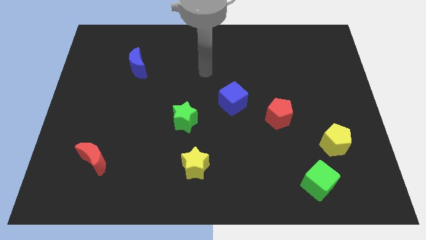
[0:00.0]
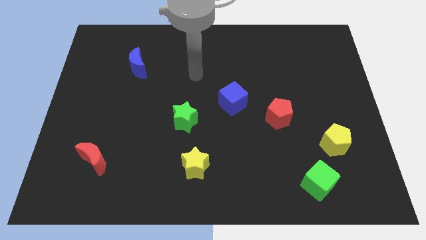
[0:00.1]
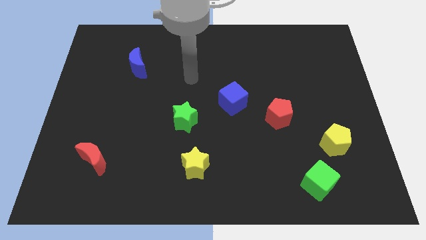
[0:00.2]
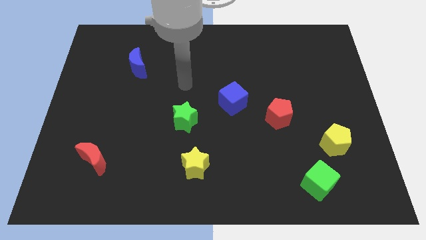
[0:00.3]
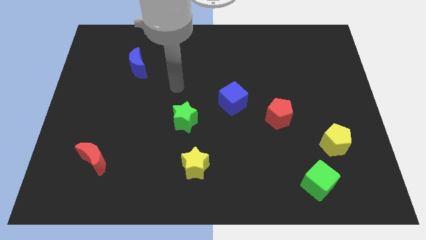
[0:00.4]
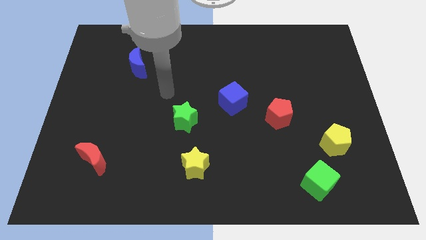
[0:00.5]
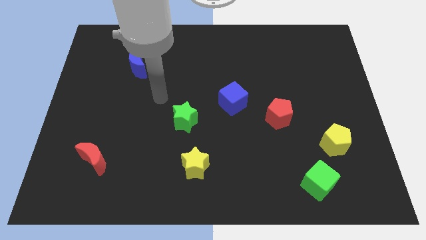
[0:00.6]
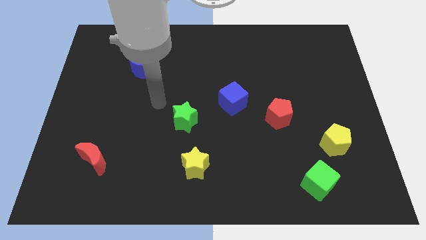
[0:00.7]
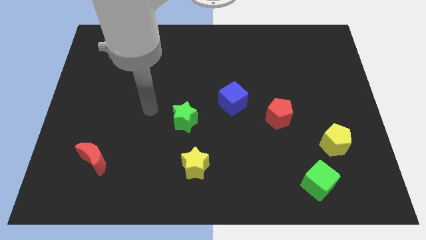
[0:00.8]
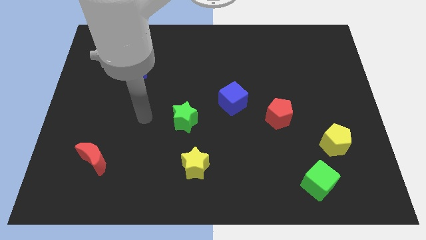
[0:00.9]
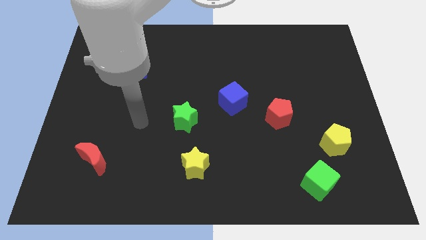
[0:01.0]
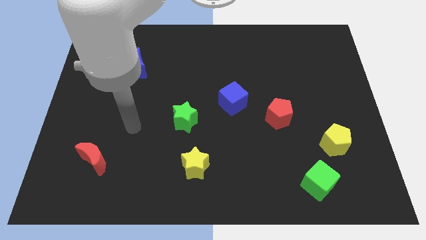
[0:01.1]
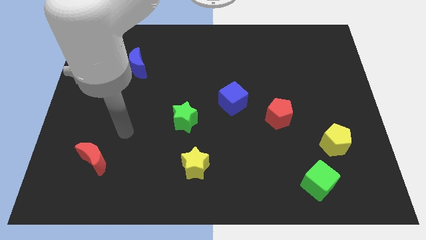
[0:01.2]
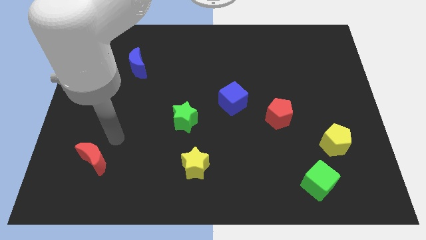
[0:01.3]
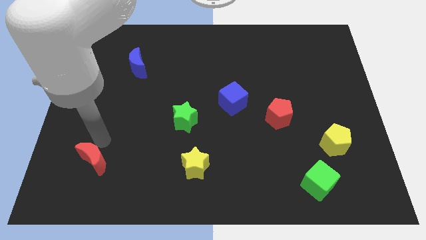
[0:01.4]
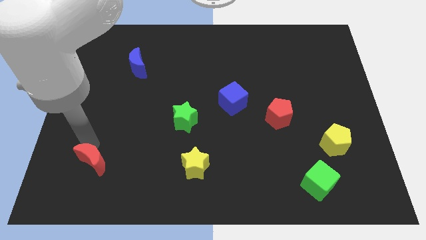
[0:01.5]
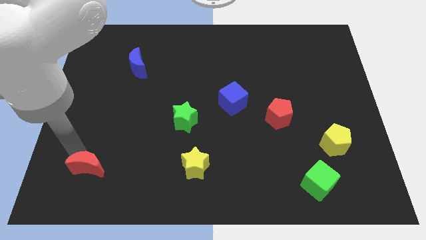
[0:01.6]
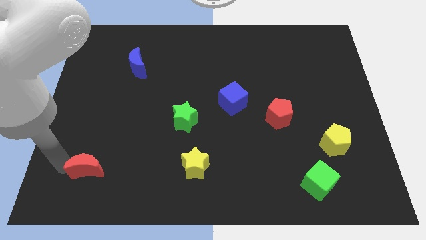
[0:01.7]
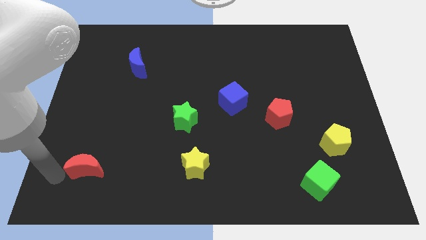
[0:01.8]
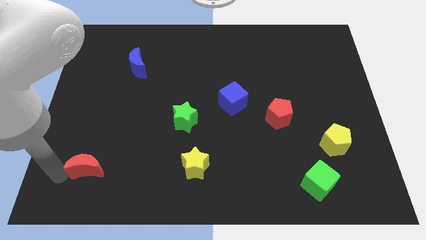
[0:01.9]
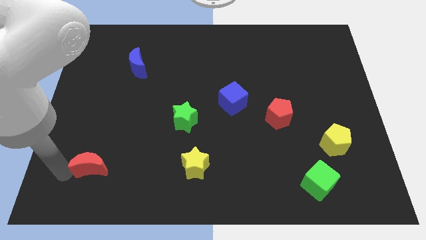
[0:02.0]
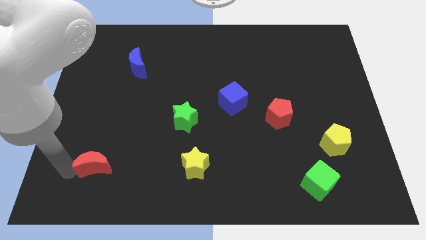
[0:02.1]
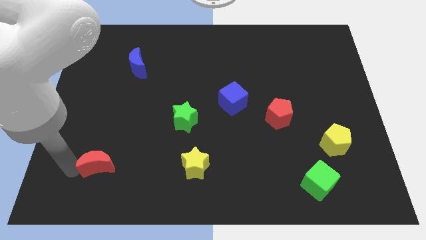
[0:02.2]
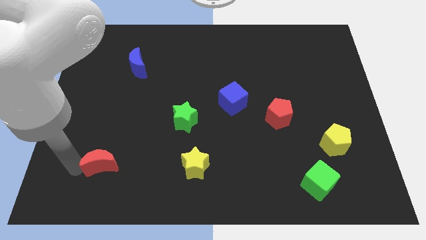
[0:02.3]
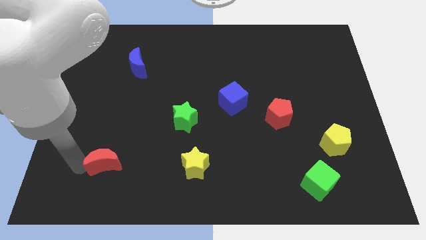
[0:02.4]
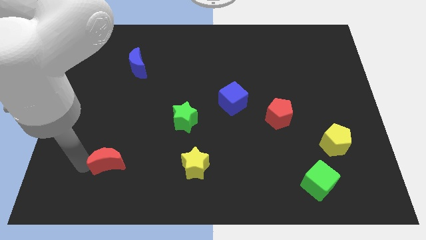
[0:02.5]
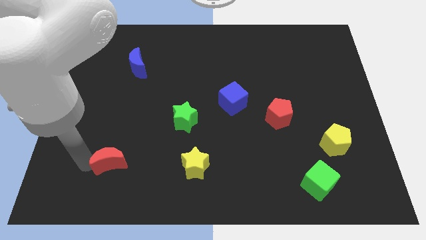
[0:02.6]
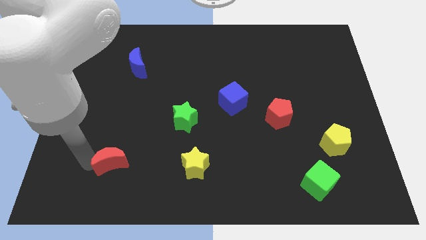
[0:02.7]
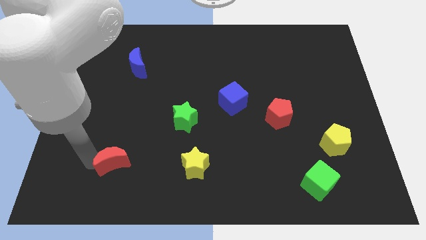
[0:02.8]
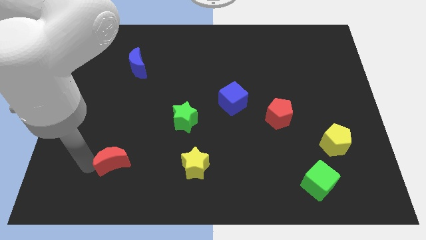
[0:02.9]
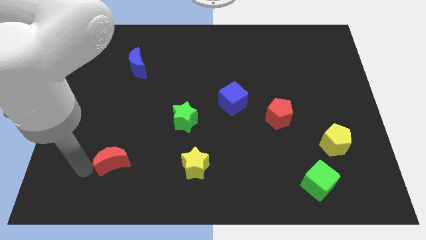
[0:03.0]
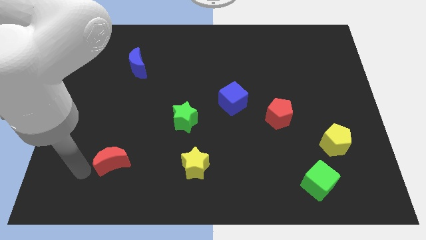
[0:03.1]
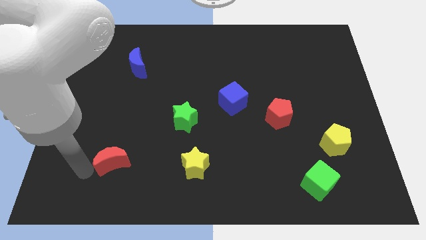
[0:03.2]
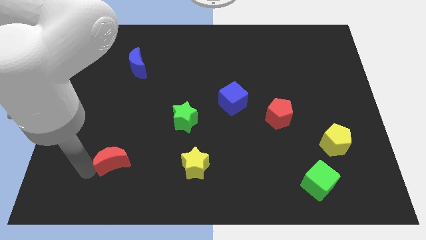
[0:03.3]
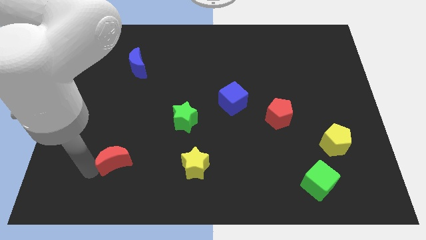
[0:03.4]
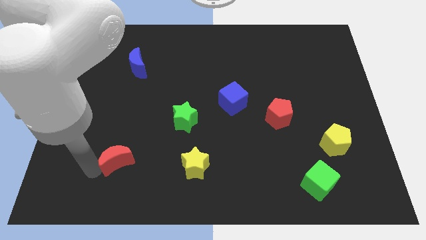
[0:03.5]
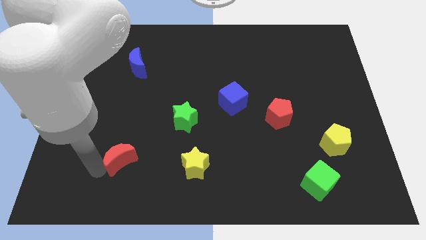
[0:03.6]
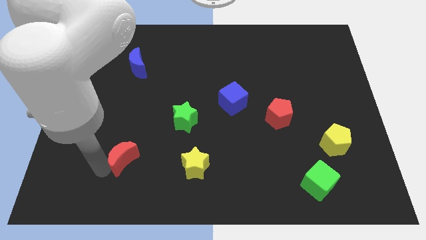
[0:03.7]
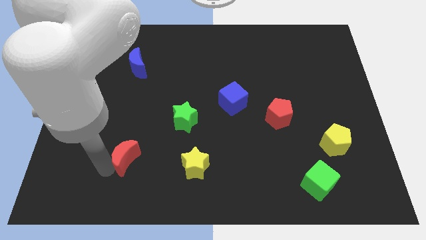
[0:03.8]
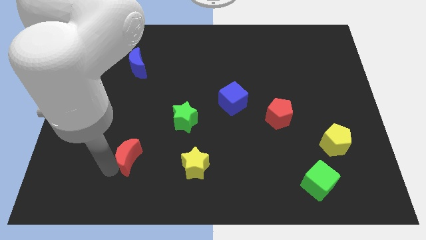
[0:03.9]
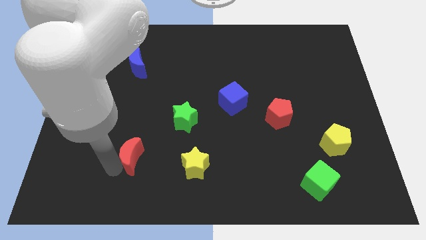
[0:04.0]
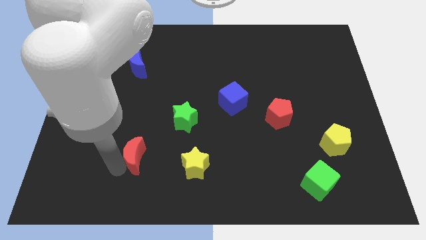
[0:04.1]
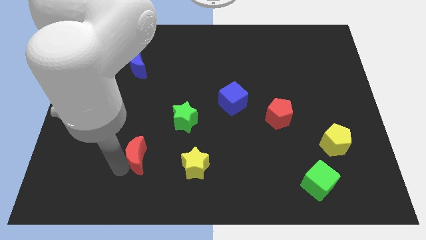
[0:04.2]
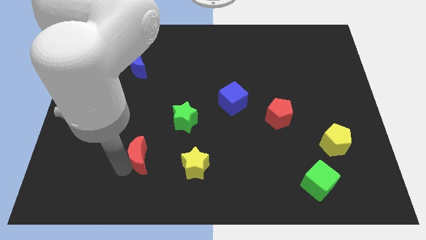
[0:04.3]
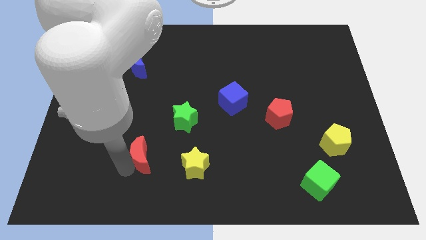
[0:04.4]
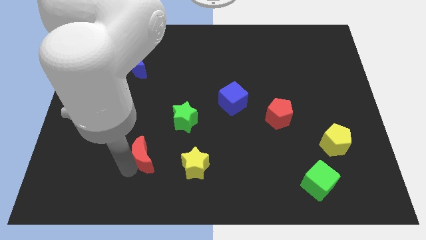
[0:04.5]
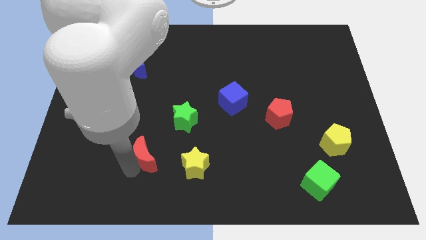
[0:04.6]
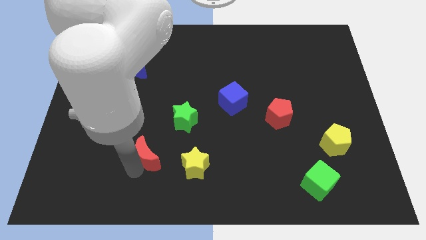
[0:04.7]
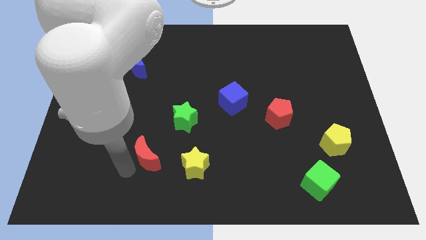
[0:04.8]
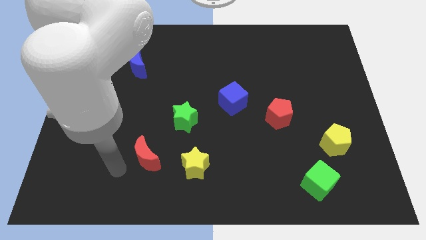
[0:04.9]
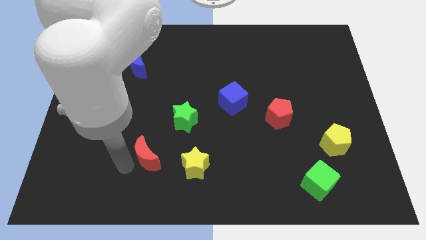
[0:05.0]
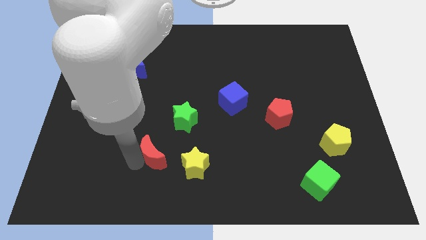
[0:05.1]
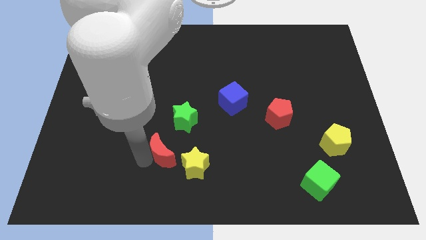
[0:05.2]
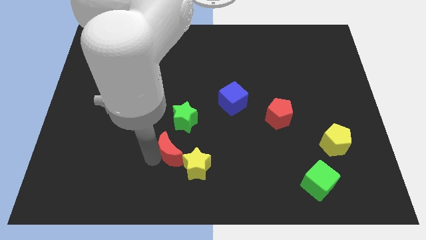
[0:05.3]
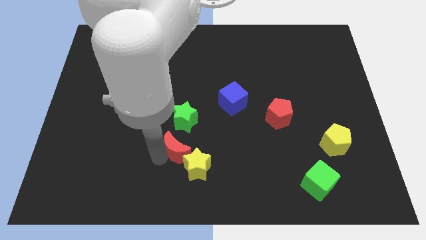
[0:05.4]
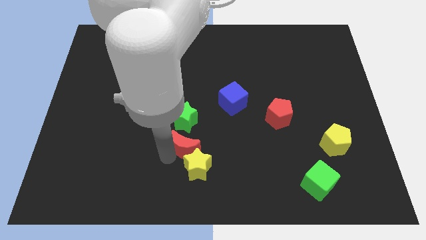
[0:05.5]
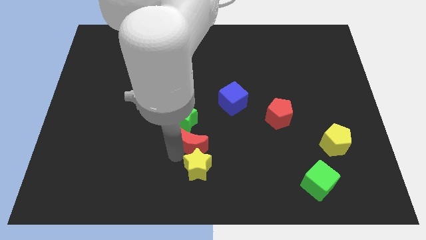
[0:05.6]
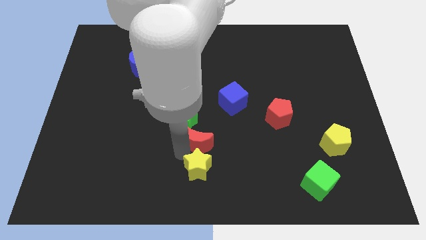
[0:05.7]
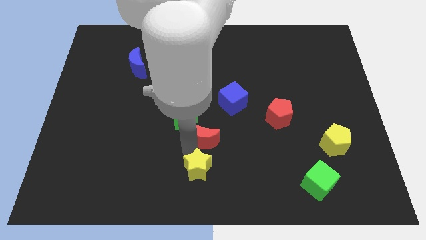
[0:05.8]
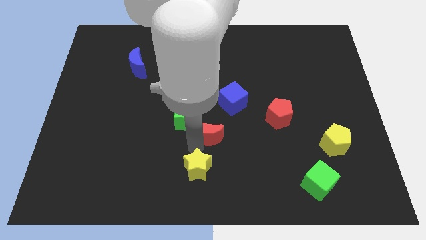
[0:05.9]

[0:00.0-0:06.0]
move the red moon to the right side of the green star

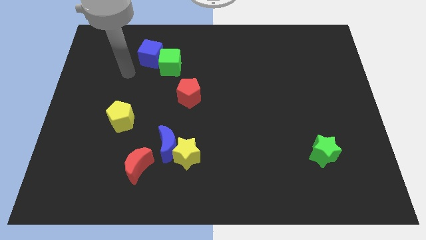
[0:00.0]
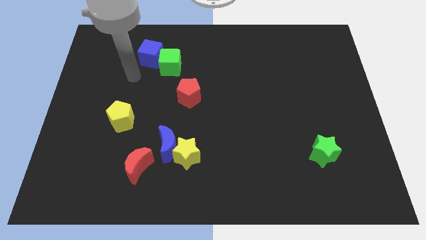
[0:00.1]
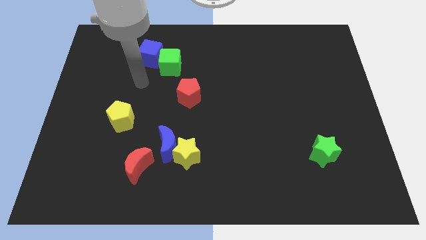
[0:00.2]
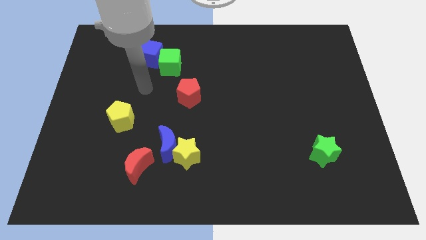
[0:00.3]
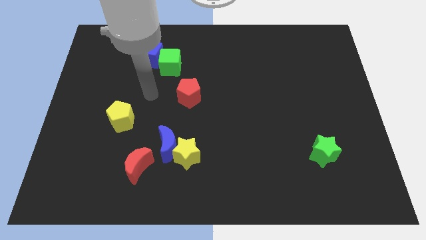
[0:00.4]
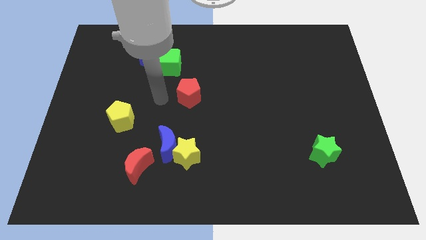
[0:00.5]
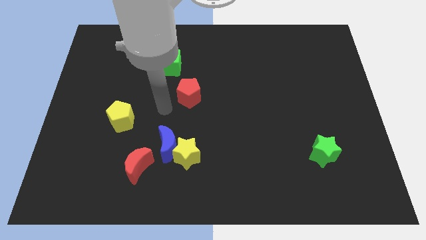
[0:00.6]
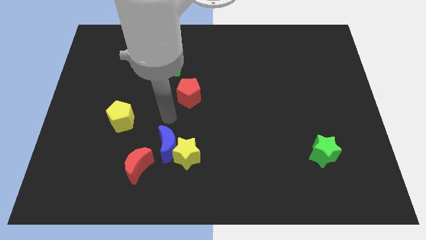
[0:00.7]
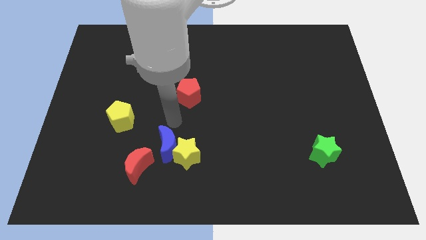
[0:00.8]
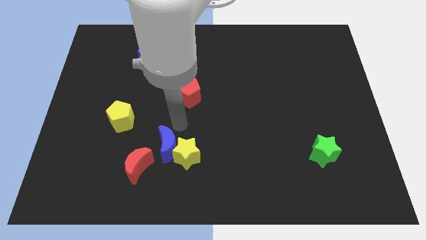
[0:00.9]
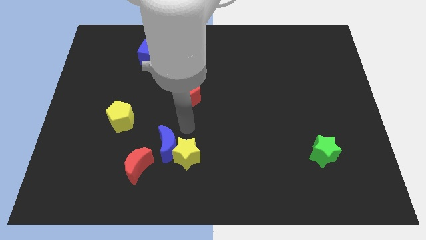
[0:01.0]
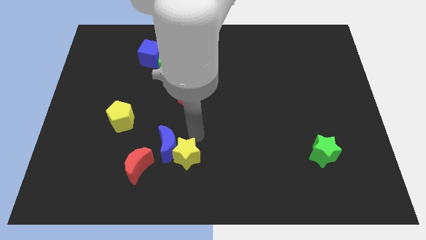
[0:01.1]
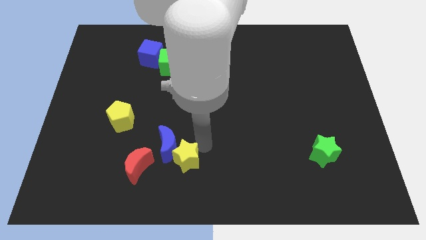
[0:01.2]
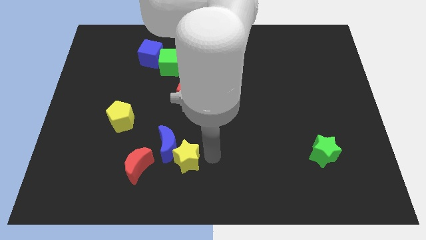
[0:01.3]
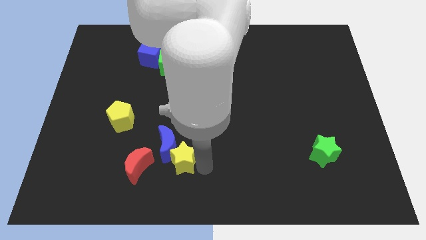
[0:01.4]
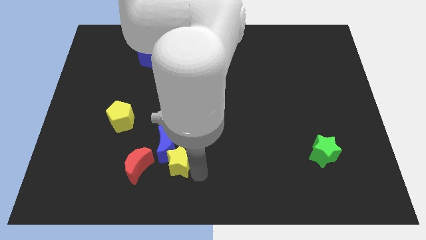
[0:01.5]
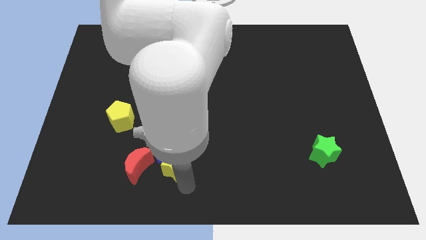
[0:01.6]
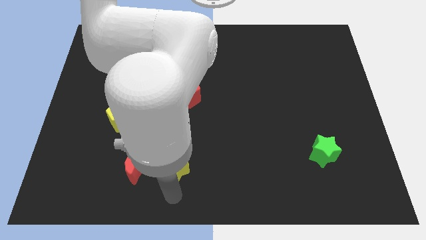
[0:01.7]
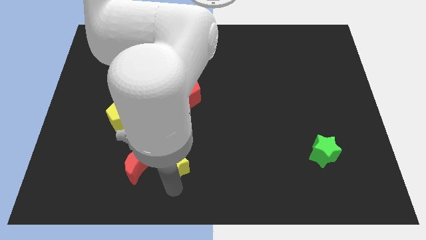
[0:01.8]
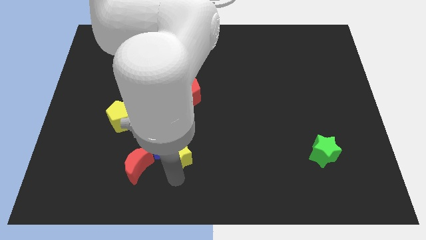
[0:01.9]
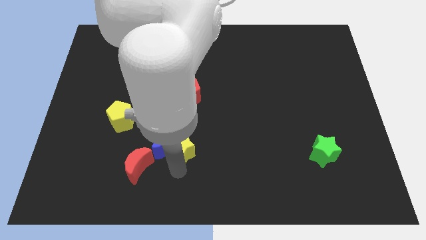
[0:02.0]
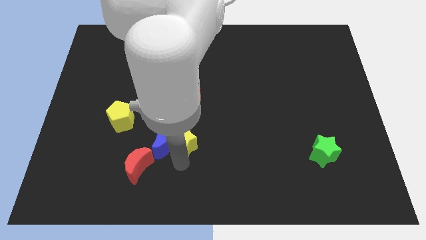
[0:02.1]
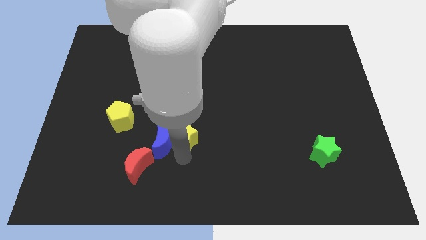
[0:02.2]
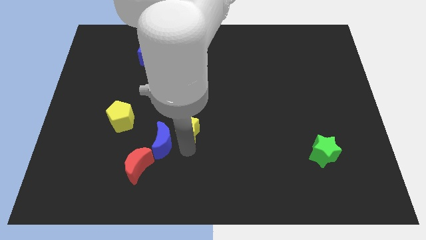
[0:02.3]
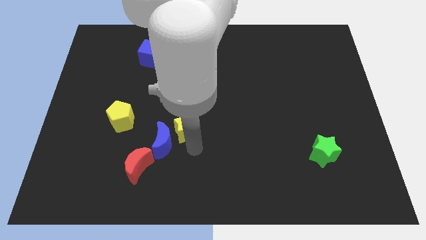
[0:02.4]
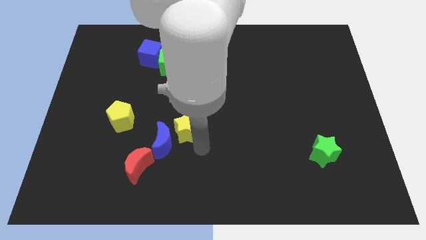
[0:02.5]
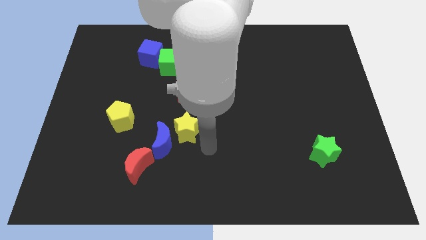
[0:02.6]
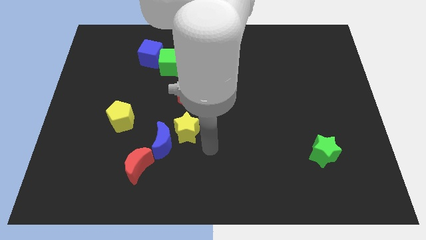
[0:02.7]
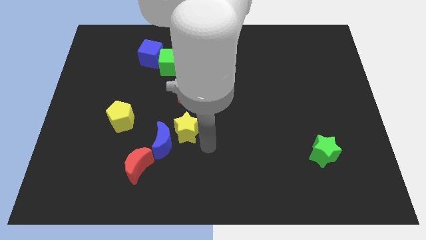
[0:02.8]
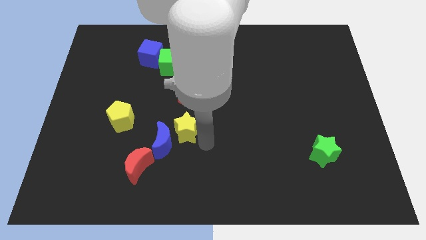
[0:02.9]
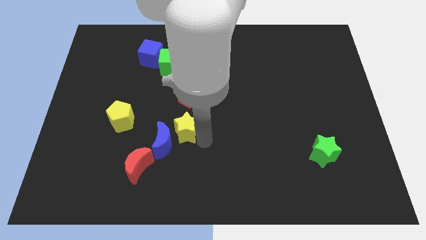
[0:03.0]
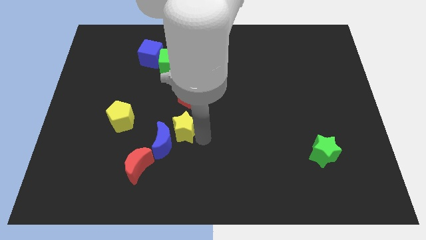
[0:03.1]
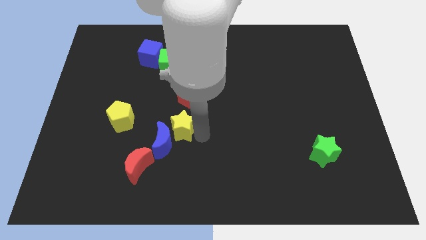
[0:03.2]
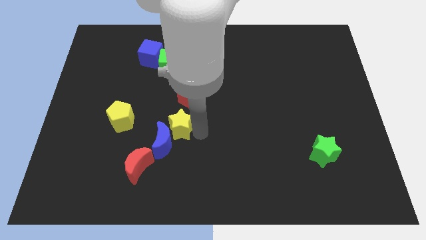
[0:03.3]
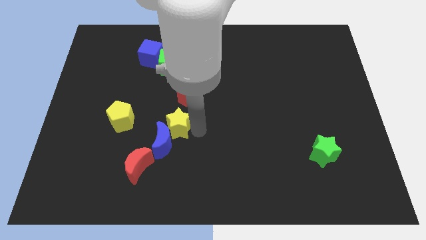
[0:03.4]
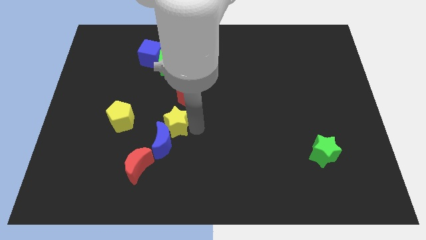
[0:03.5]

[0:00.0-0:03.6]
move the yellow star to the bottom left side of the red pentagon
